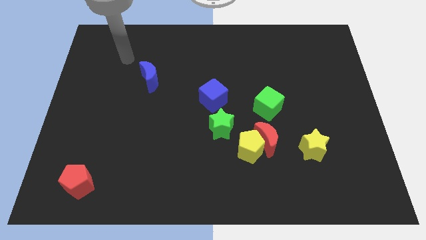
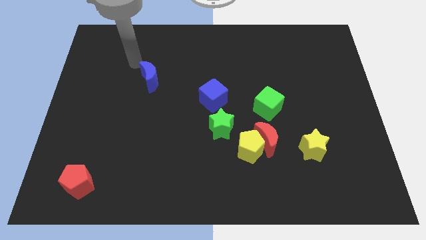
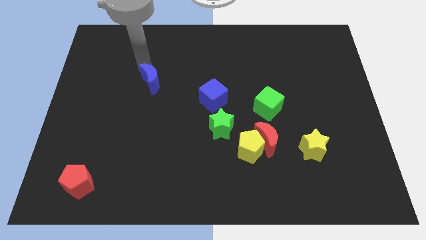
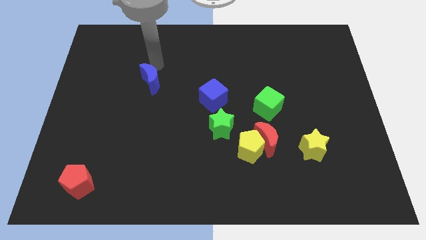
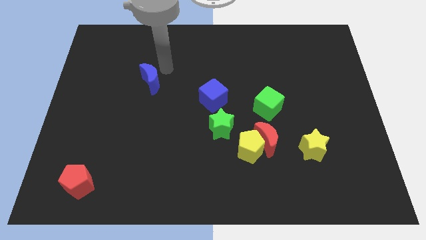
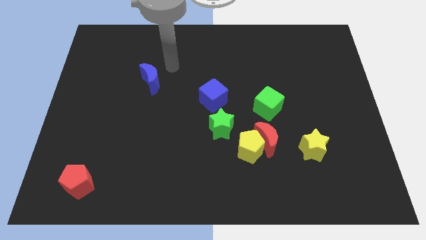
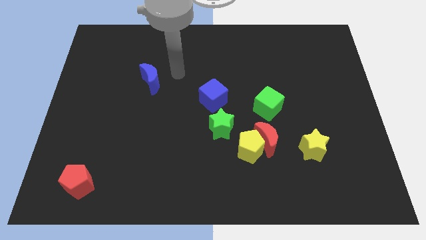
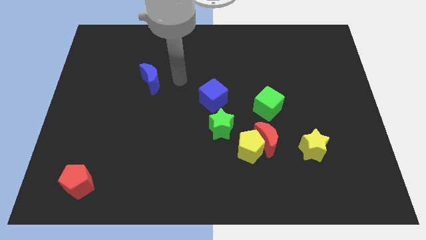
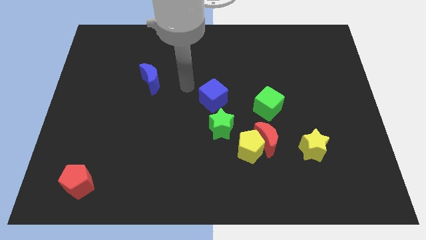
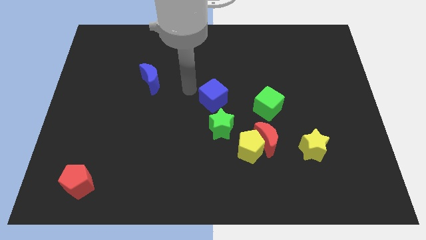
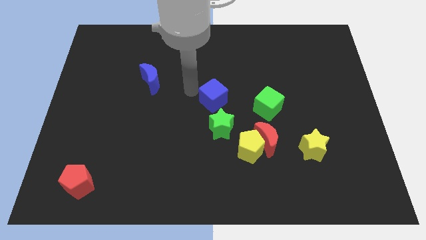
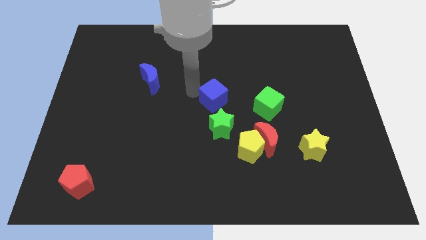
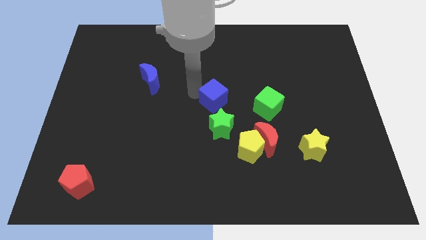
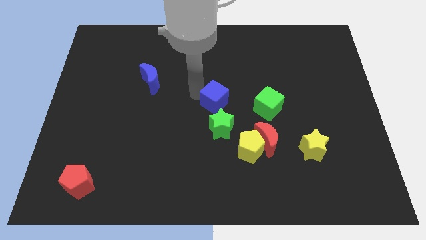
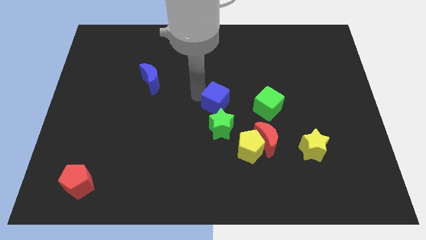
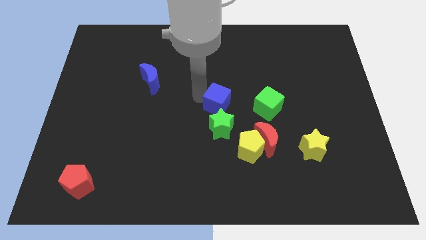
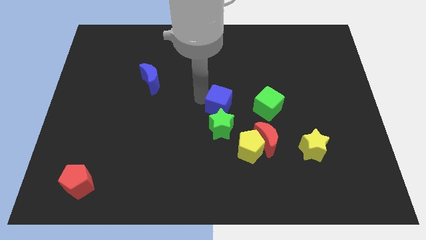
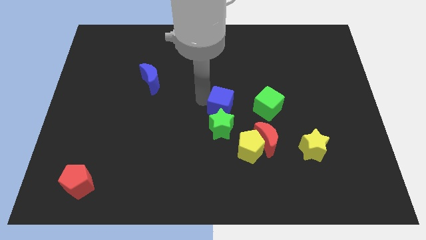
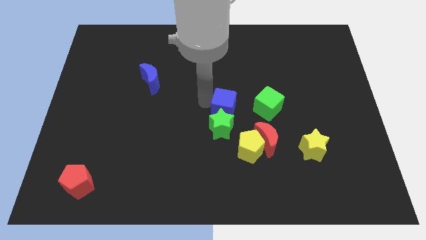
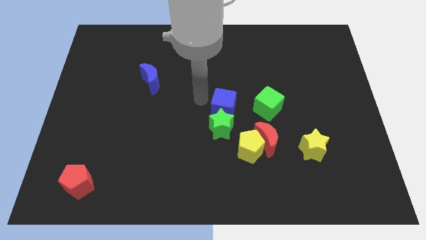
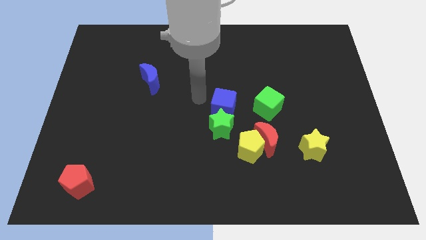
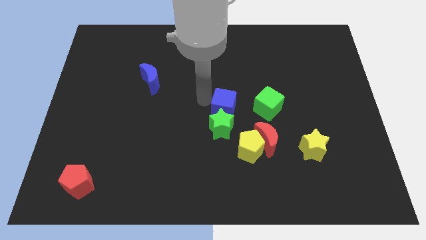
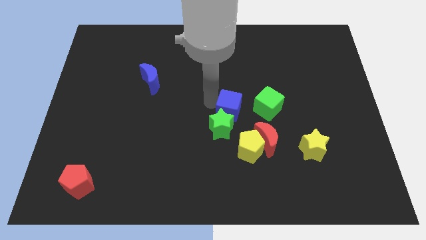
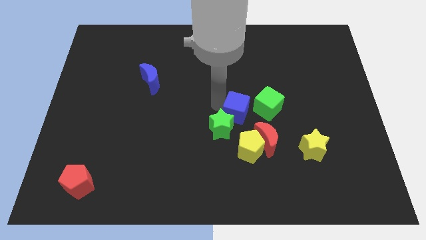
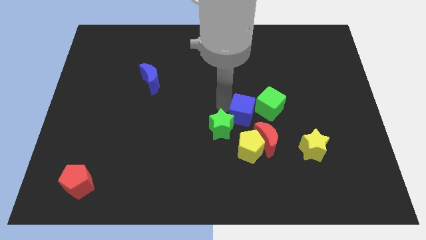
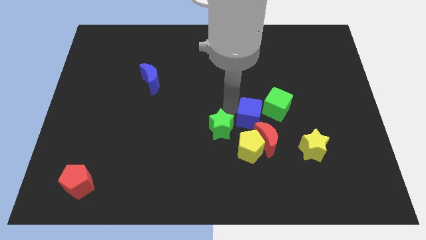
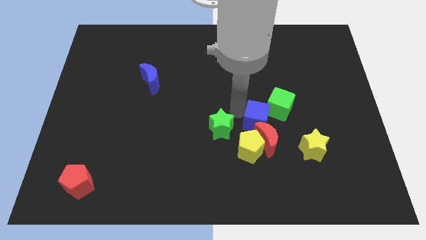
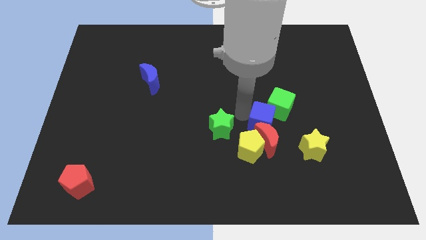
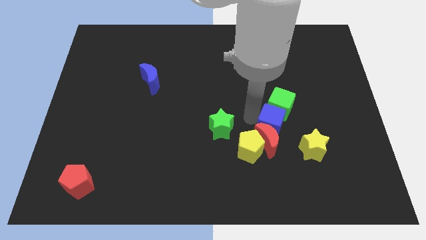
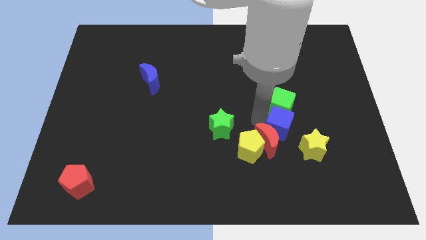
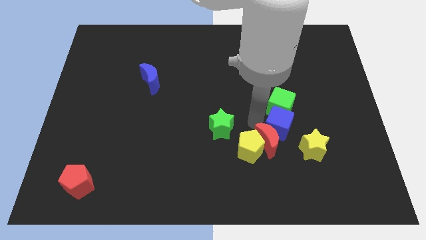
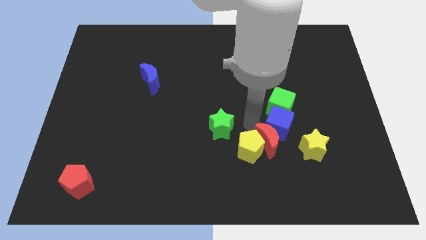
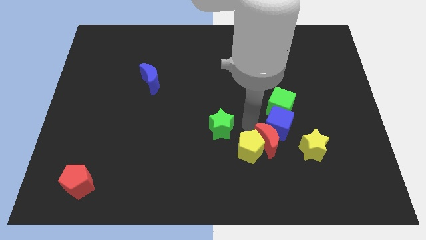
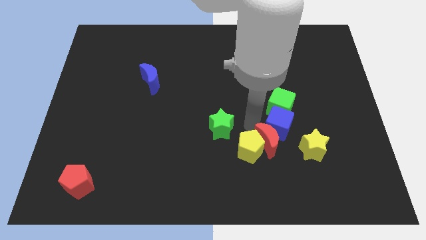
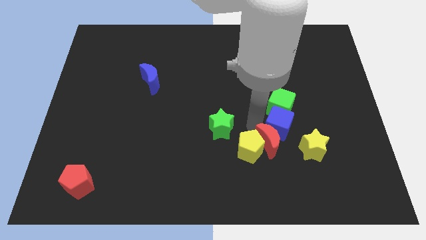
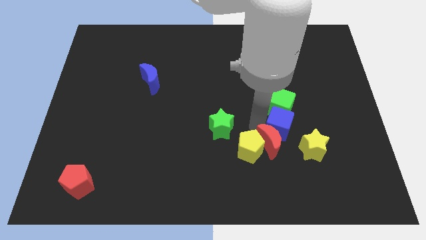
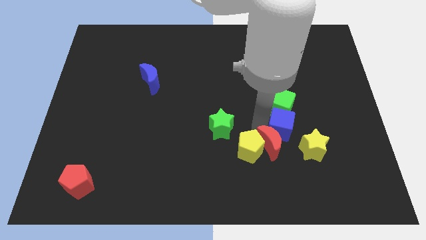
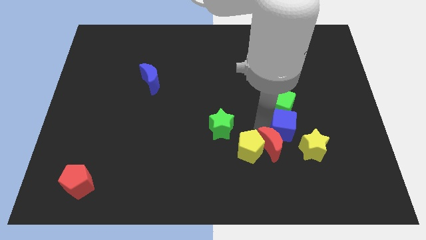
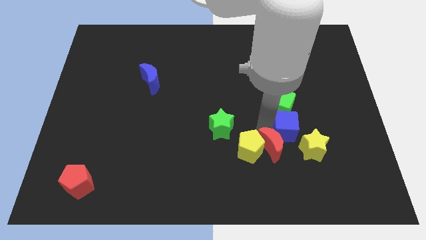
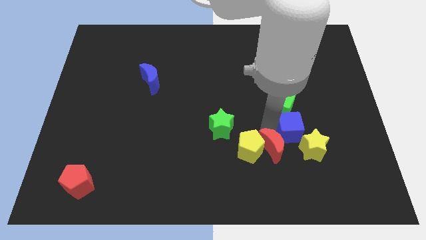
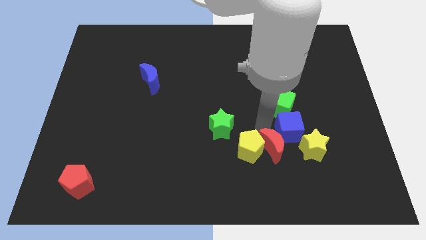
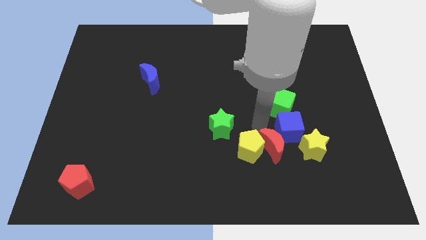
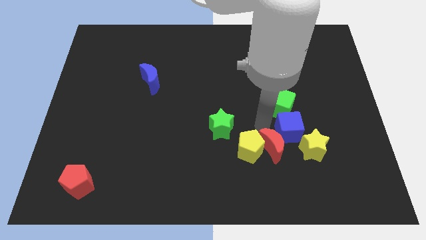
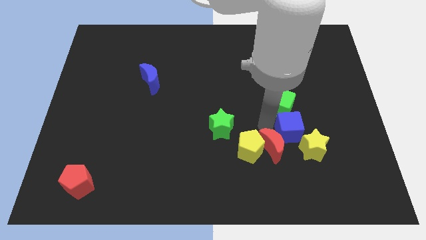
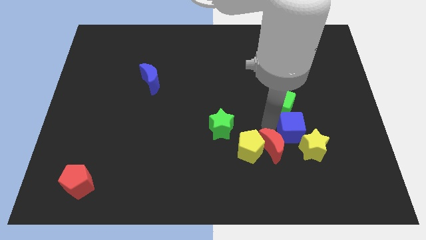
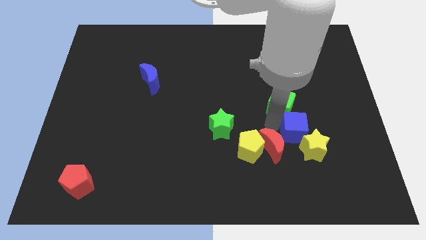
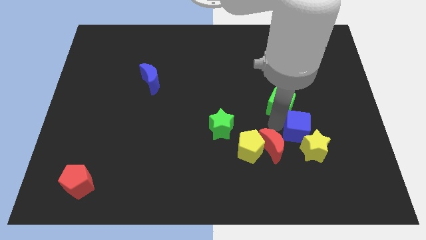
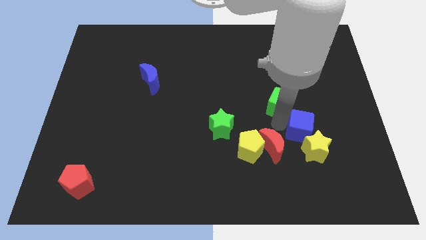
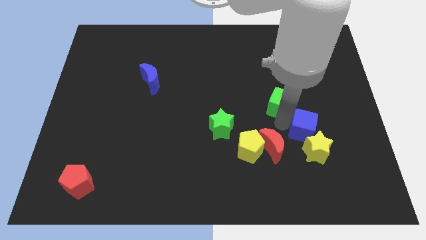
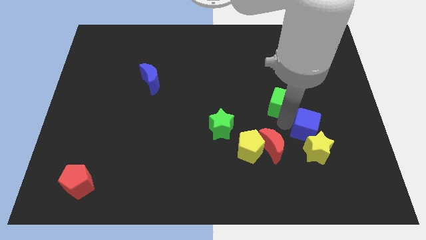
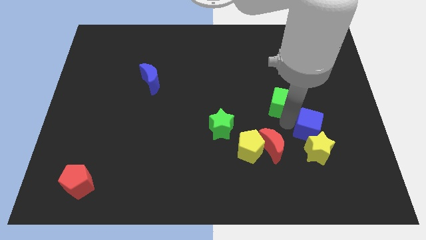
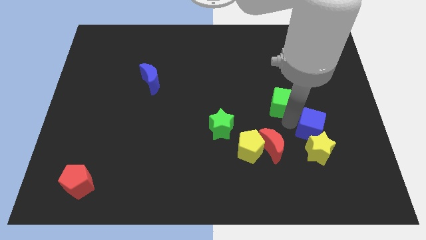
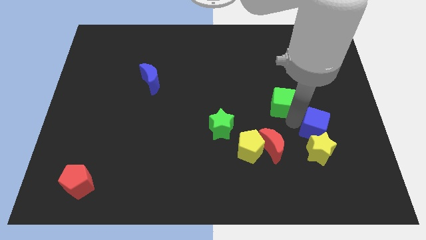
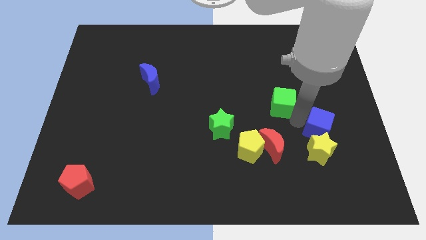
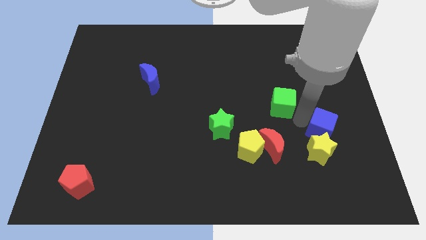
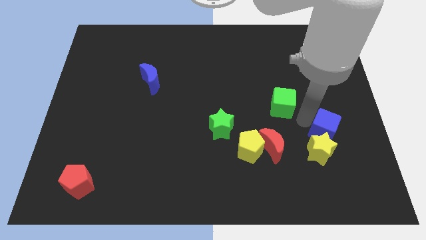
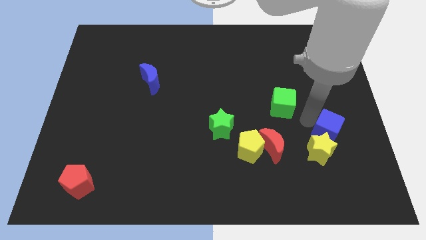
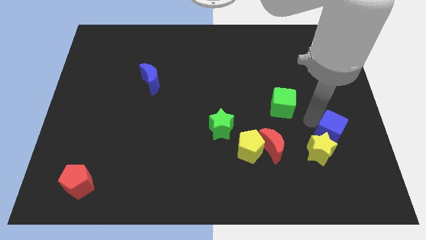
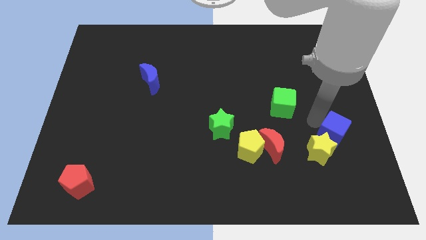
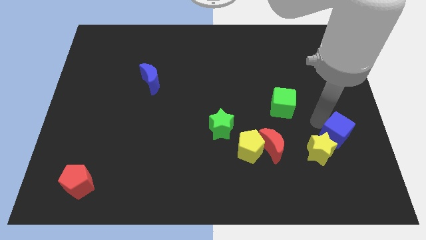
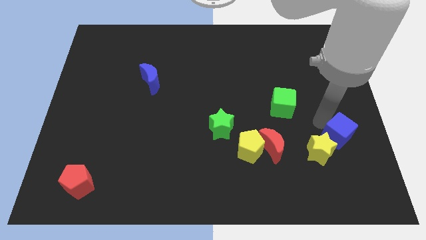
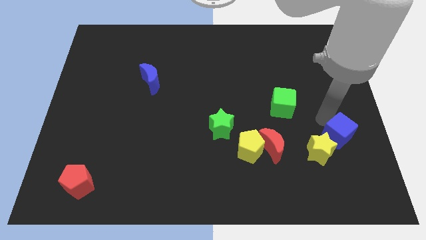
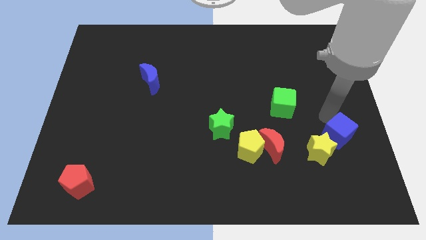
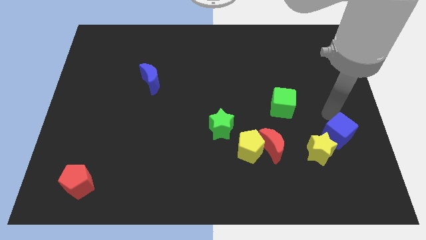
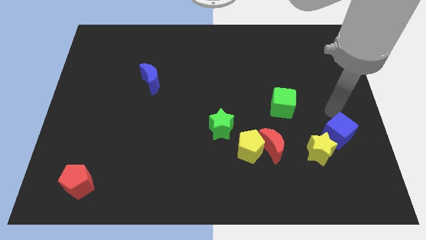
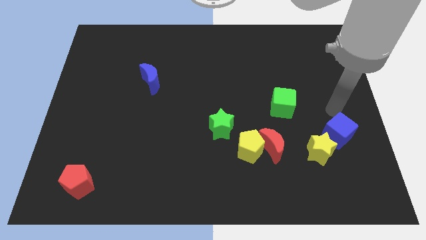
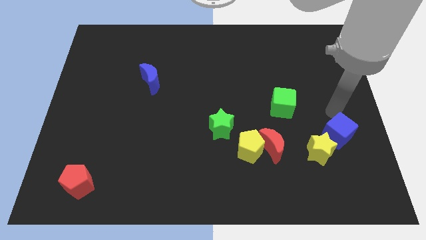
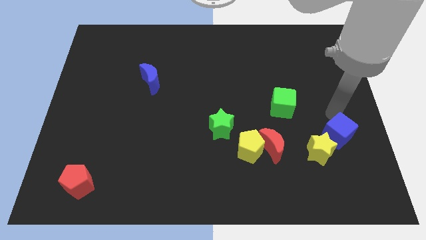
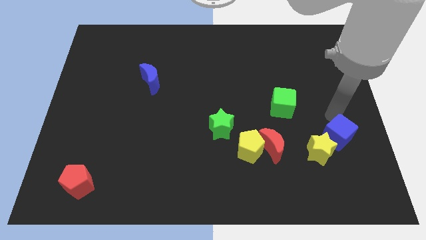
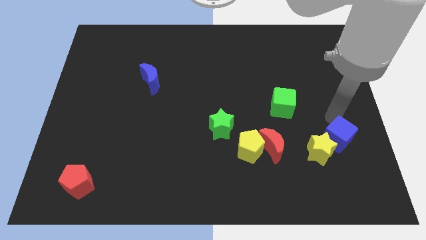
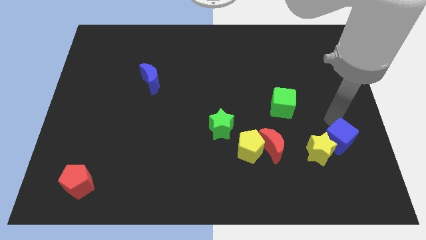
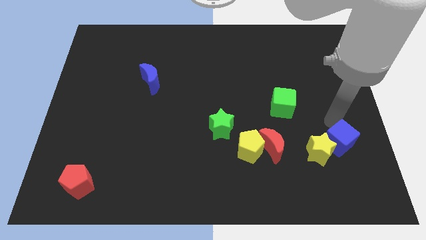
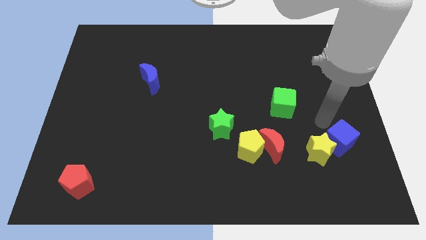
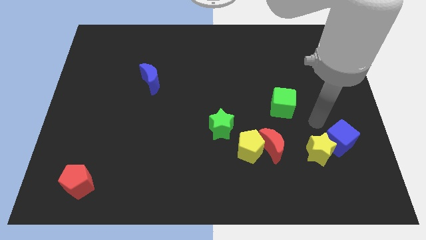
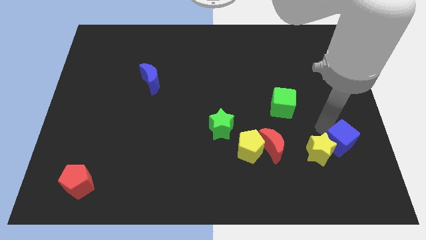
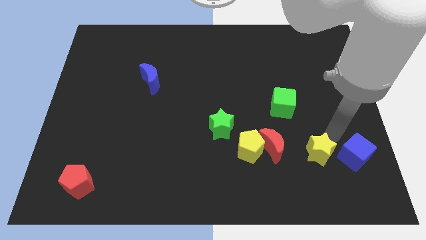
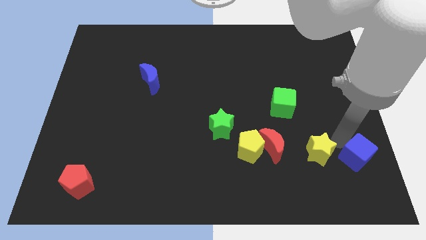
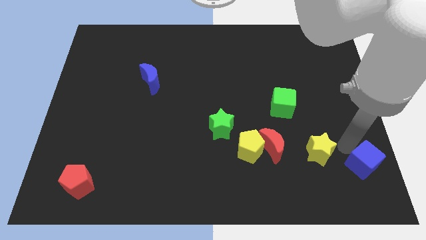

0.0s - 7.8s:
put the blue cube to the bottom right
